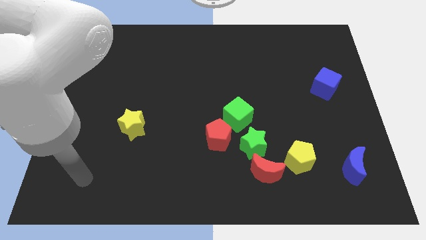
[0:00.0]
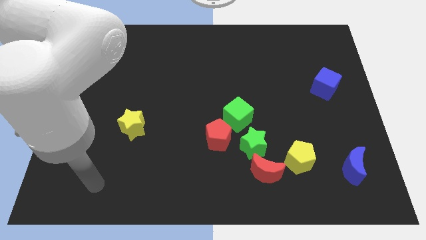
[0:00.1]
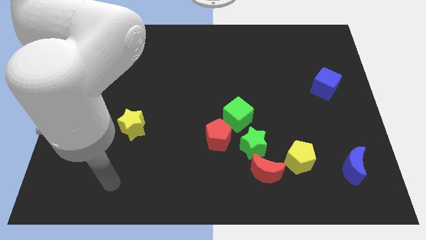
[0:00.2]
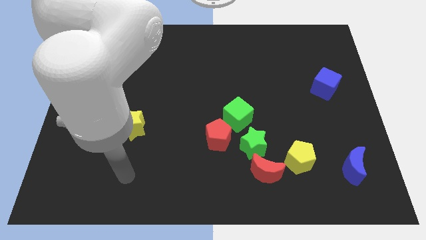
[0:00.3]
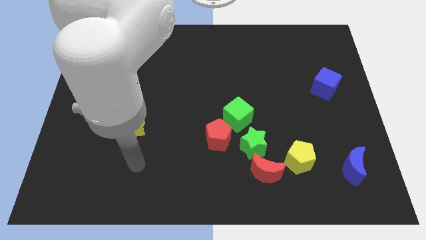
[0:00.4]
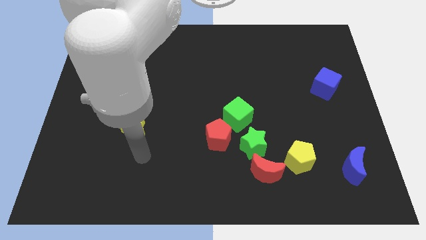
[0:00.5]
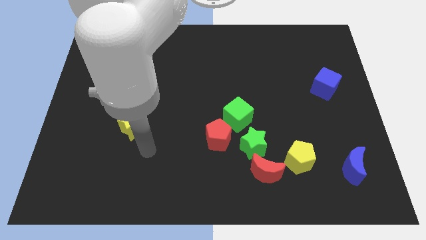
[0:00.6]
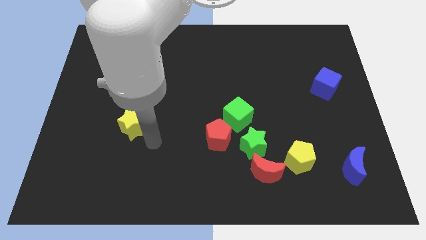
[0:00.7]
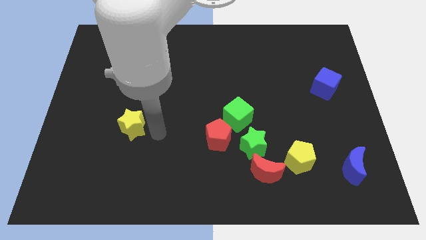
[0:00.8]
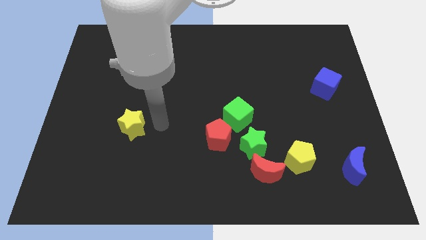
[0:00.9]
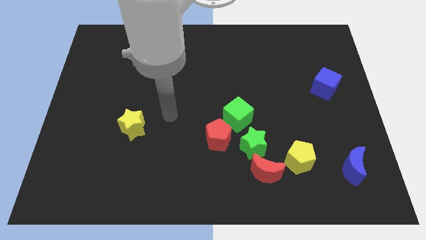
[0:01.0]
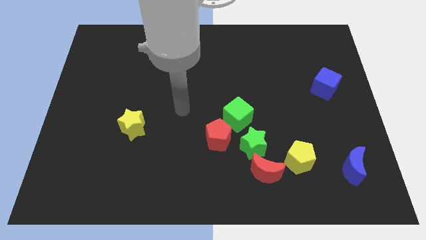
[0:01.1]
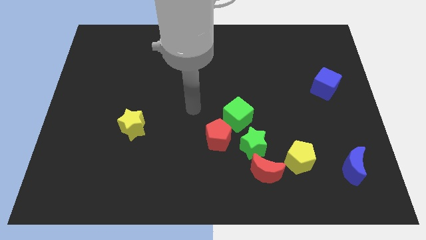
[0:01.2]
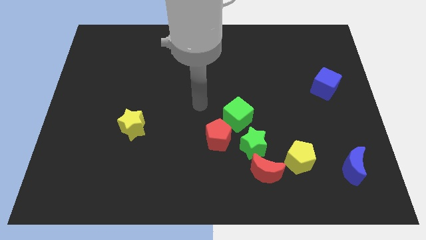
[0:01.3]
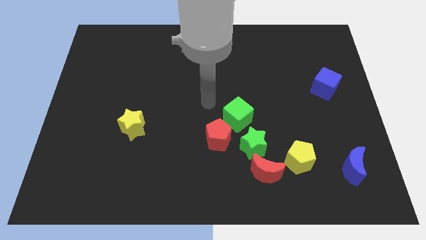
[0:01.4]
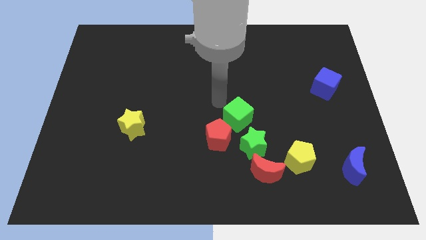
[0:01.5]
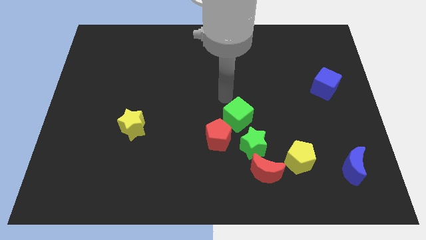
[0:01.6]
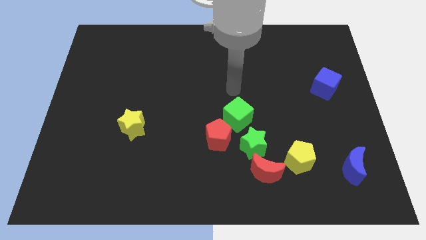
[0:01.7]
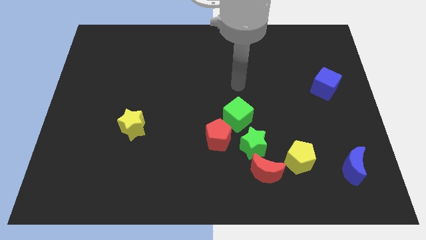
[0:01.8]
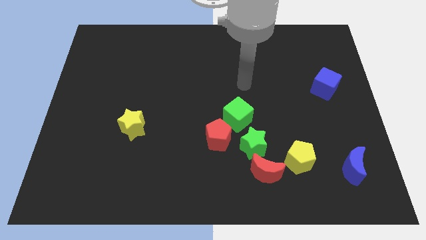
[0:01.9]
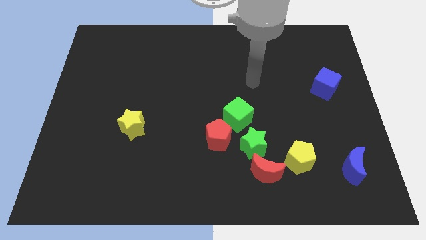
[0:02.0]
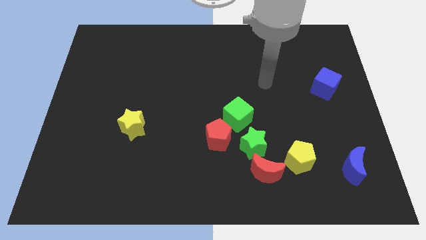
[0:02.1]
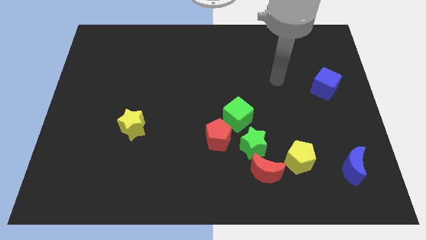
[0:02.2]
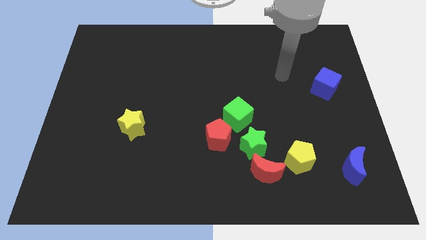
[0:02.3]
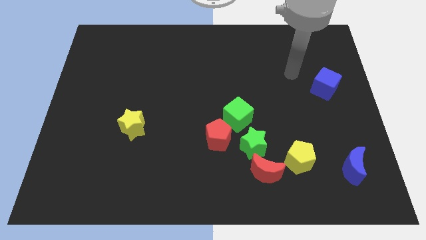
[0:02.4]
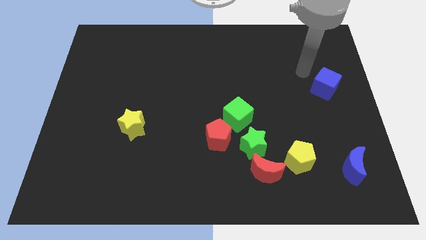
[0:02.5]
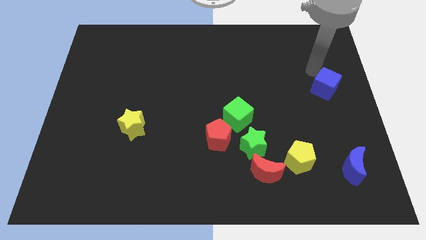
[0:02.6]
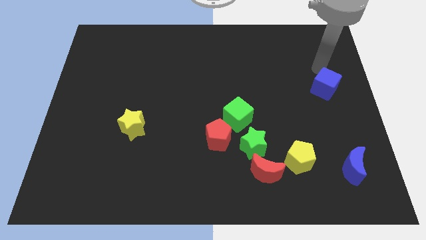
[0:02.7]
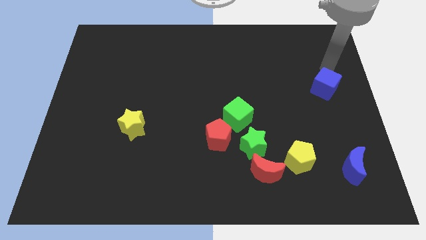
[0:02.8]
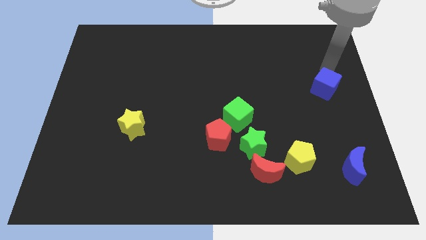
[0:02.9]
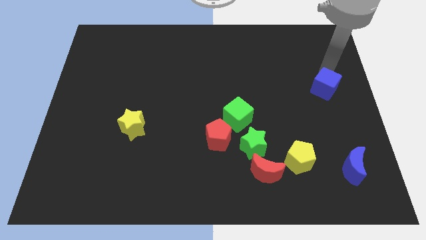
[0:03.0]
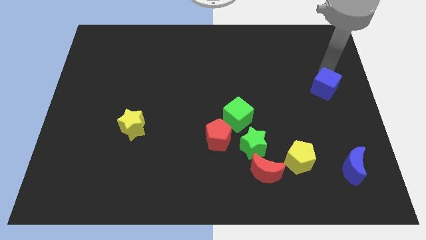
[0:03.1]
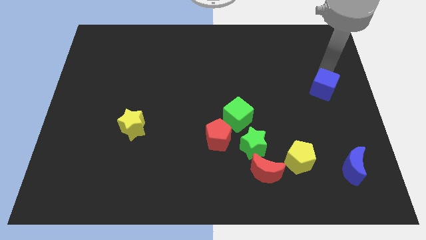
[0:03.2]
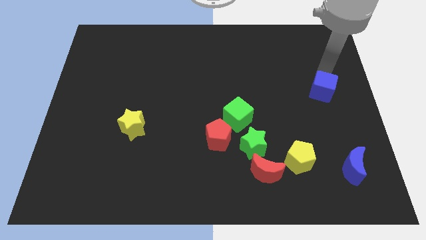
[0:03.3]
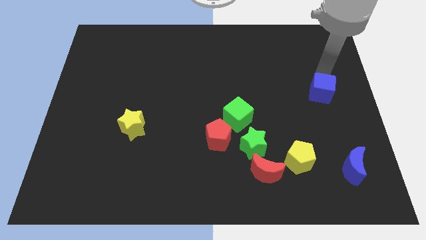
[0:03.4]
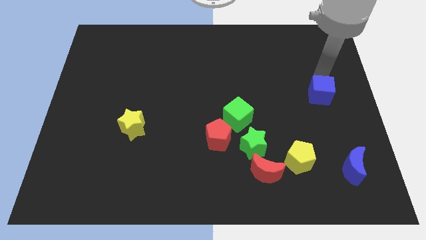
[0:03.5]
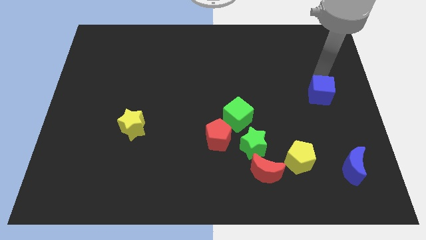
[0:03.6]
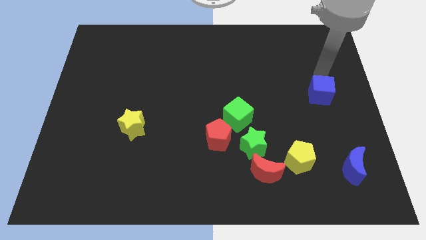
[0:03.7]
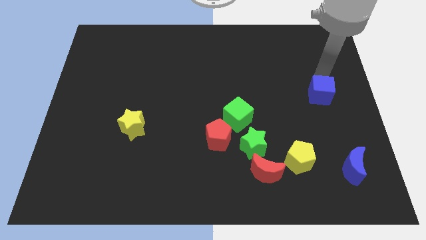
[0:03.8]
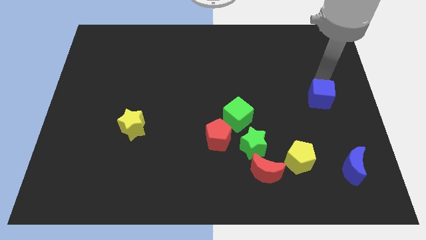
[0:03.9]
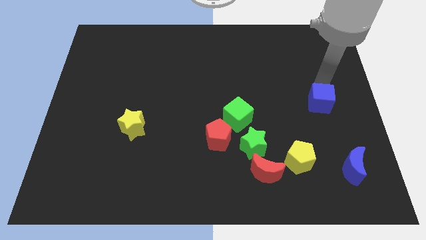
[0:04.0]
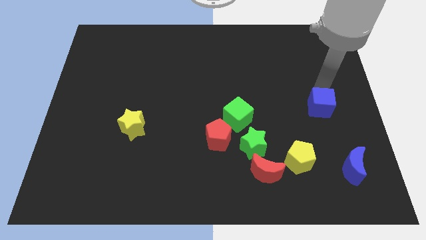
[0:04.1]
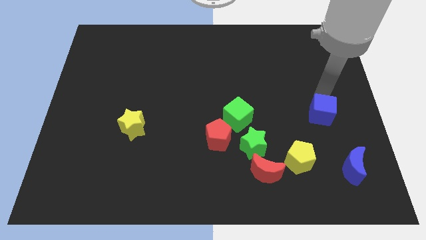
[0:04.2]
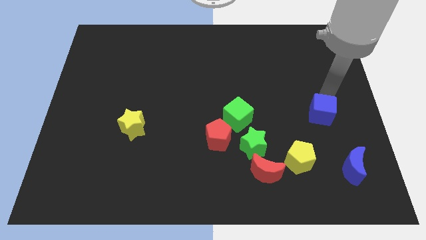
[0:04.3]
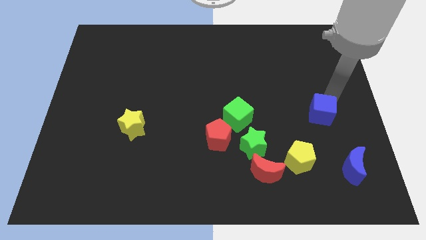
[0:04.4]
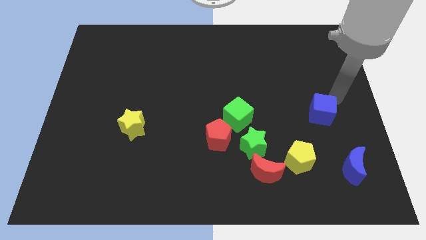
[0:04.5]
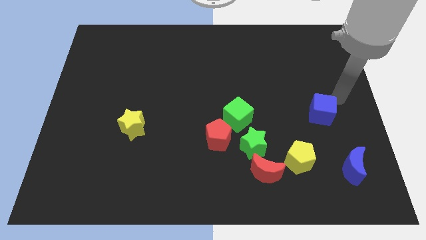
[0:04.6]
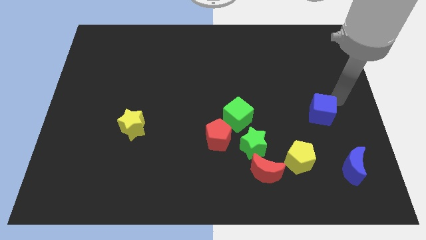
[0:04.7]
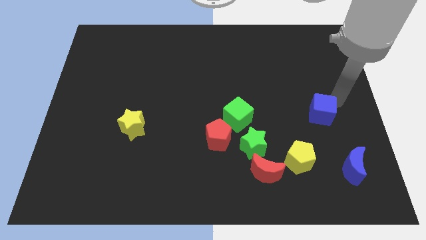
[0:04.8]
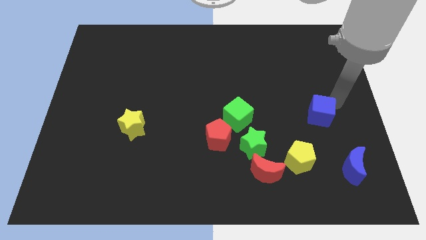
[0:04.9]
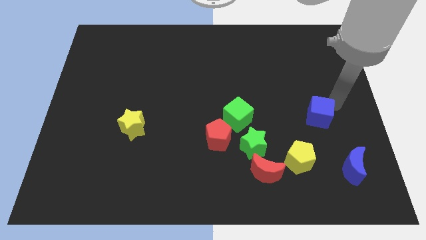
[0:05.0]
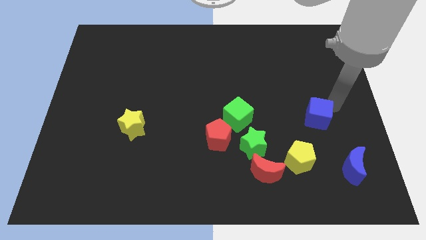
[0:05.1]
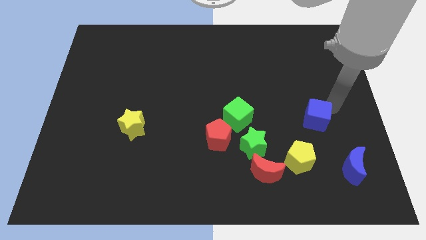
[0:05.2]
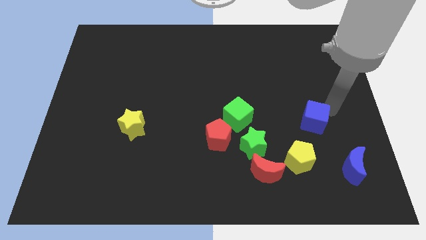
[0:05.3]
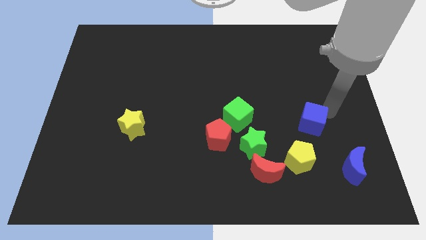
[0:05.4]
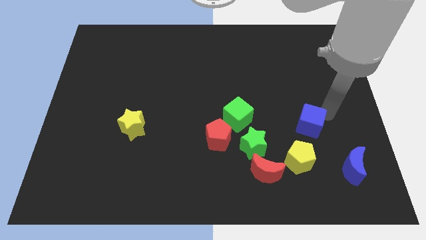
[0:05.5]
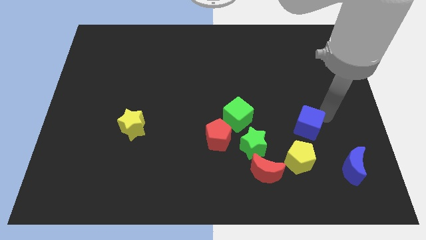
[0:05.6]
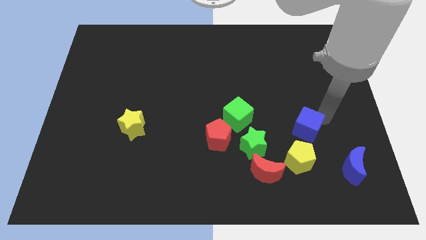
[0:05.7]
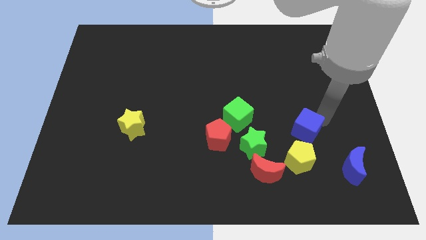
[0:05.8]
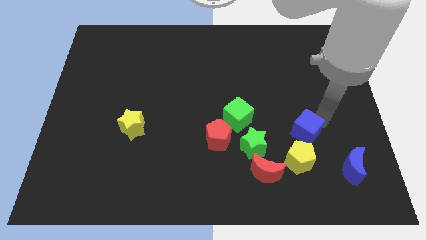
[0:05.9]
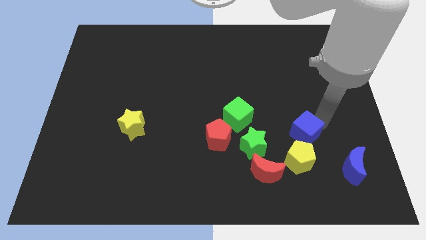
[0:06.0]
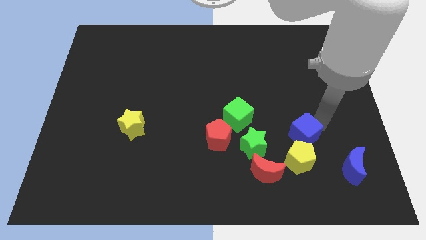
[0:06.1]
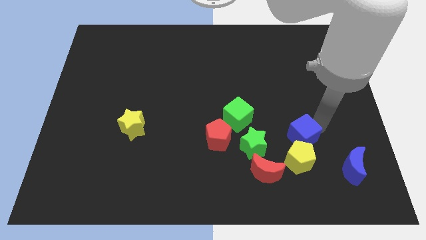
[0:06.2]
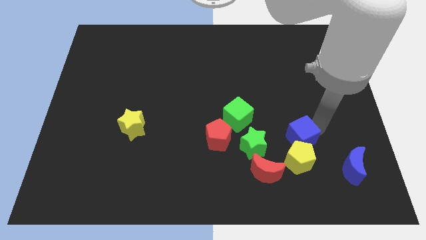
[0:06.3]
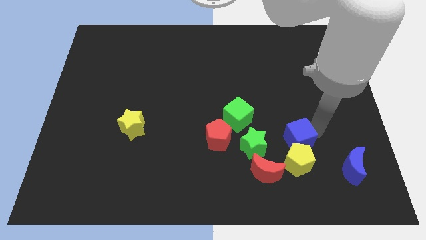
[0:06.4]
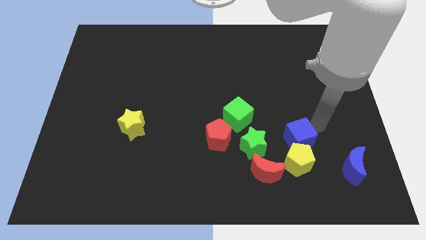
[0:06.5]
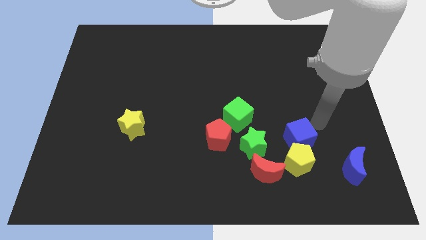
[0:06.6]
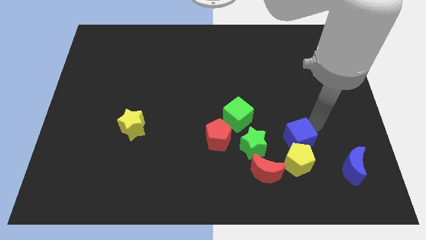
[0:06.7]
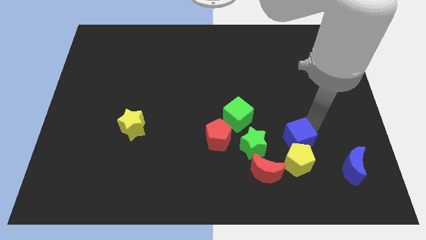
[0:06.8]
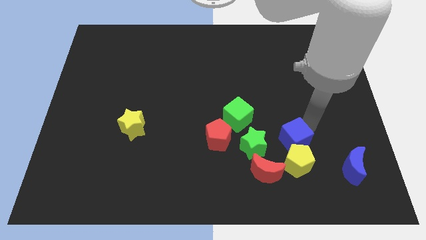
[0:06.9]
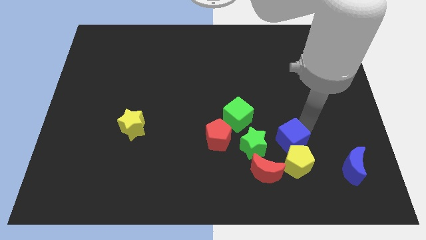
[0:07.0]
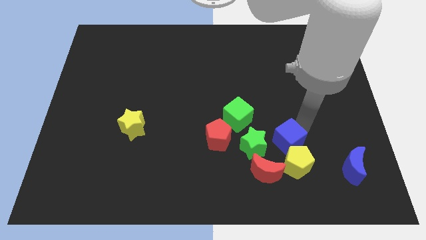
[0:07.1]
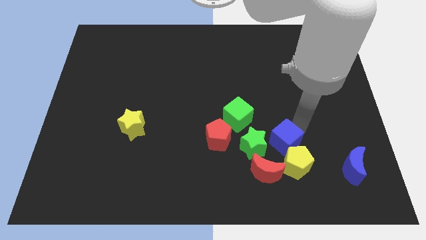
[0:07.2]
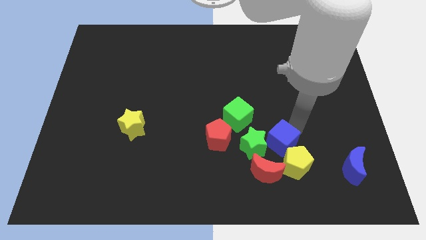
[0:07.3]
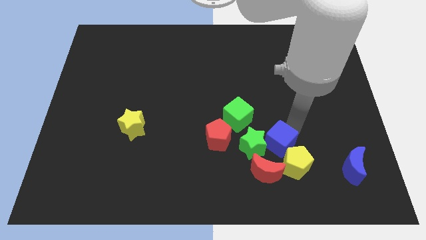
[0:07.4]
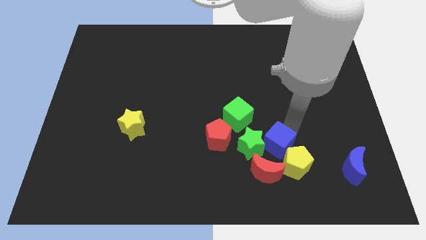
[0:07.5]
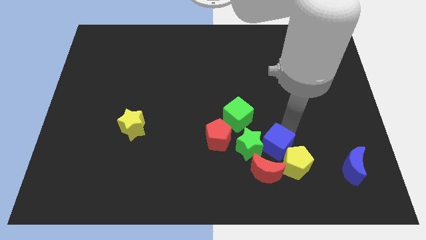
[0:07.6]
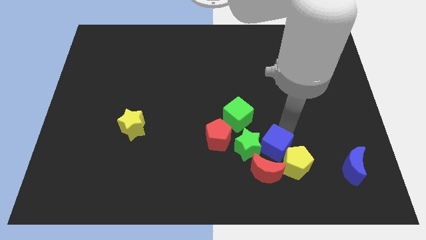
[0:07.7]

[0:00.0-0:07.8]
slide the blue cube to the left of the yellow pentagon
